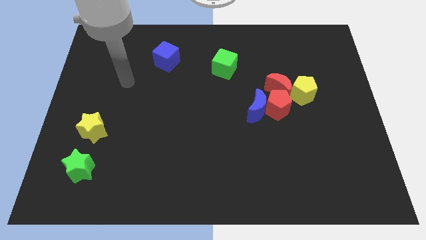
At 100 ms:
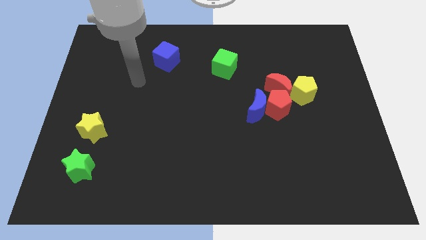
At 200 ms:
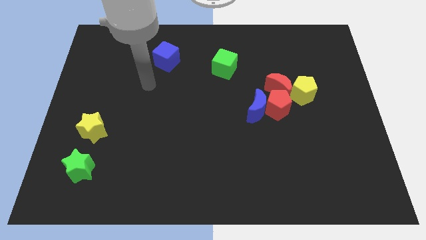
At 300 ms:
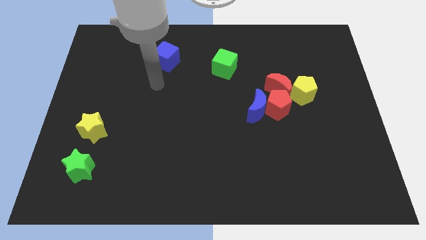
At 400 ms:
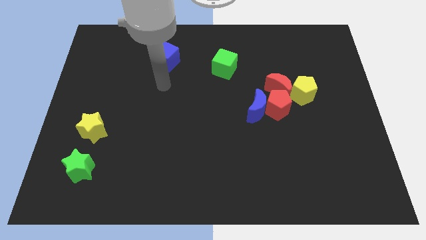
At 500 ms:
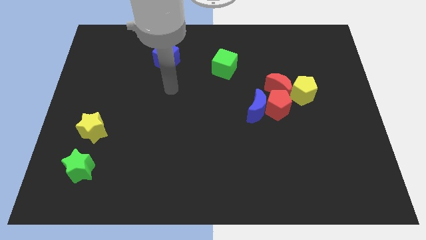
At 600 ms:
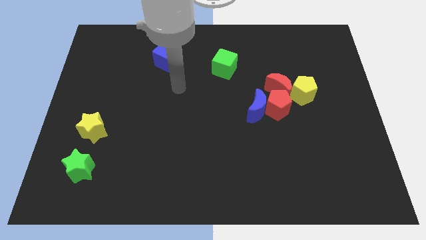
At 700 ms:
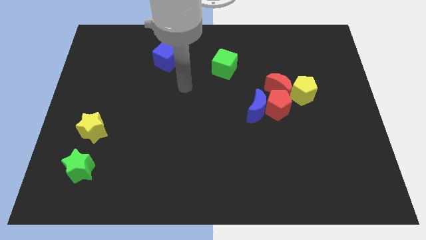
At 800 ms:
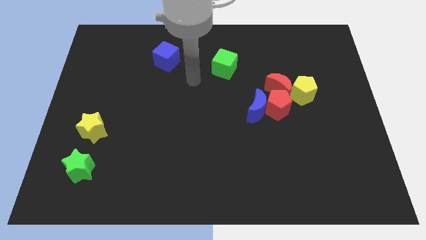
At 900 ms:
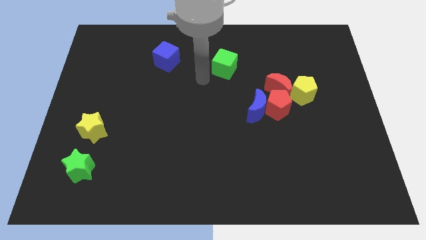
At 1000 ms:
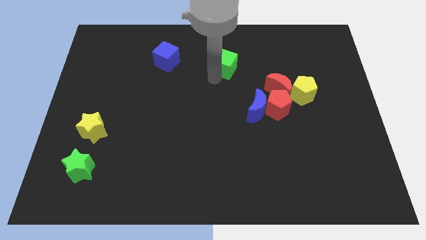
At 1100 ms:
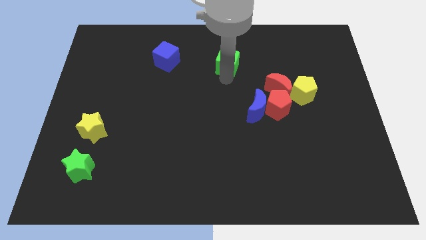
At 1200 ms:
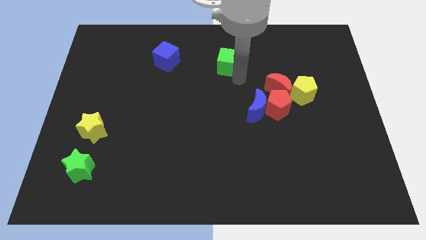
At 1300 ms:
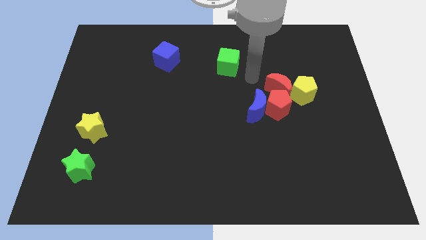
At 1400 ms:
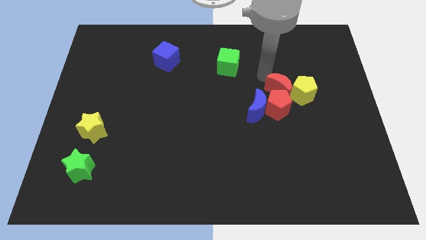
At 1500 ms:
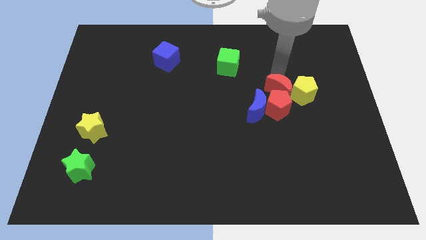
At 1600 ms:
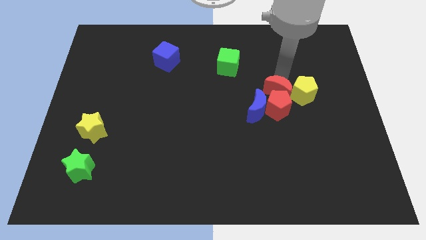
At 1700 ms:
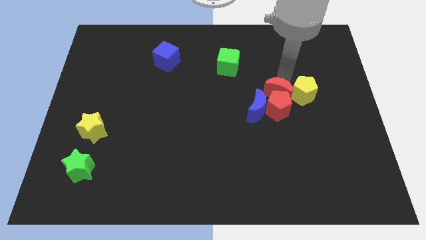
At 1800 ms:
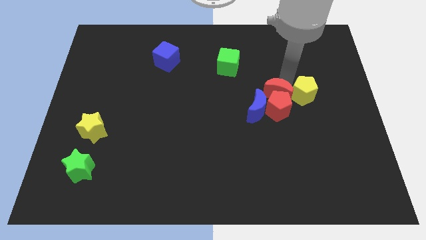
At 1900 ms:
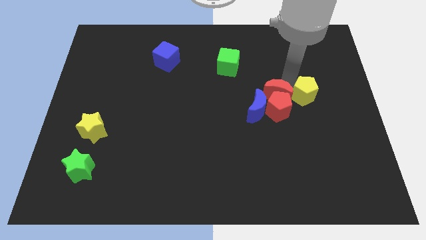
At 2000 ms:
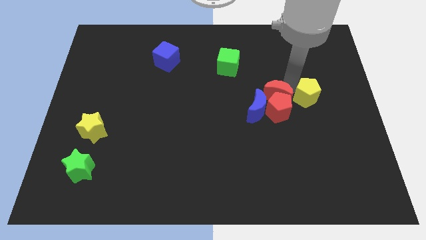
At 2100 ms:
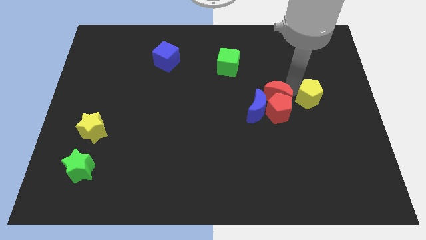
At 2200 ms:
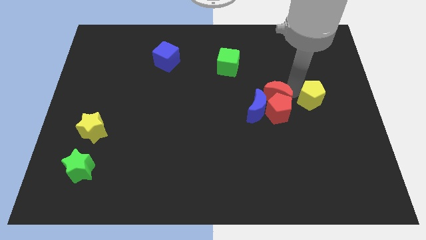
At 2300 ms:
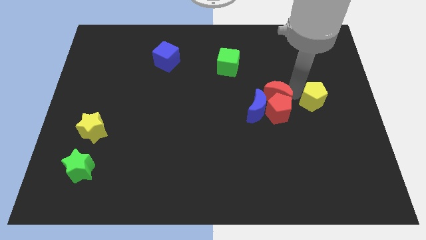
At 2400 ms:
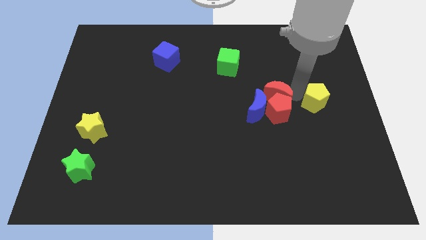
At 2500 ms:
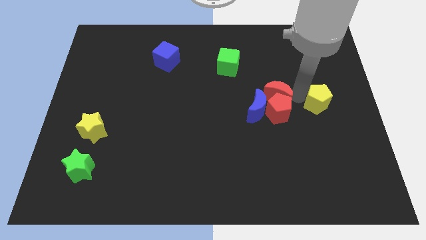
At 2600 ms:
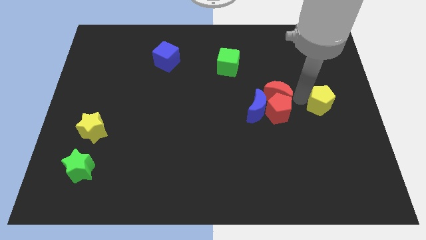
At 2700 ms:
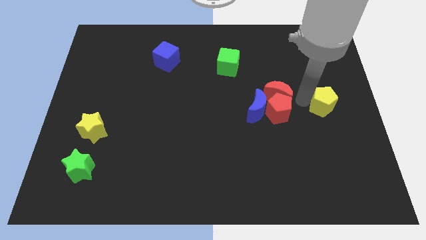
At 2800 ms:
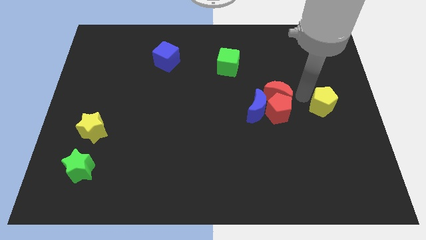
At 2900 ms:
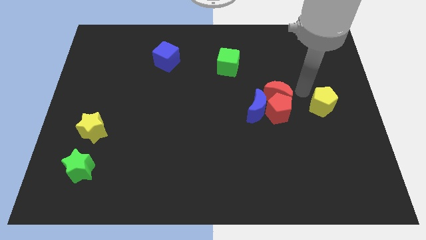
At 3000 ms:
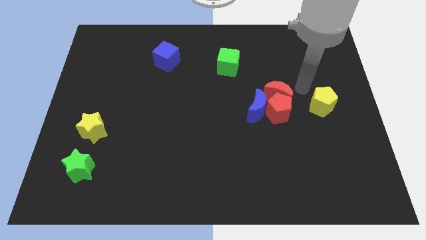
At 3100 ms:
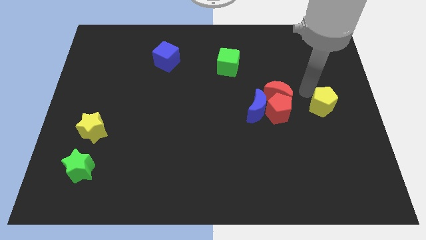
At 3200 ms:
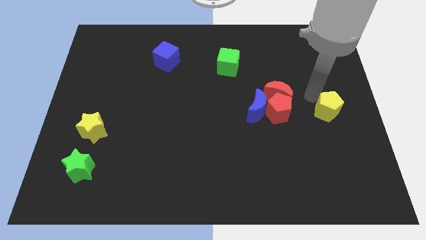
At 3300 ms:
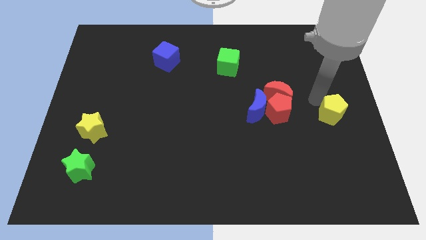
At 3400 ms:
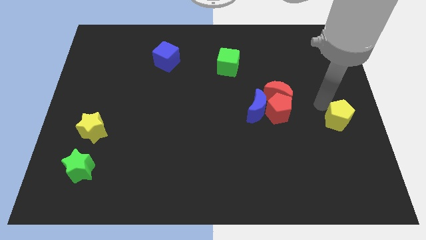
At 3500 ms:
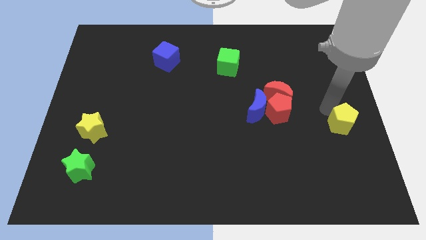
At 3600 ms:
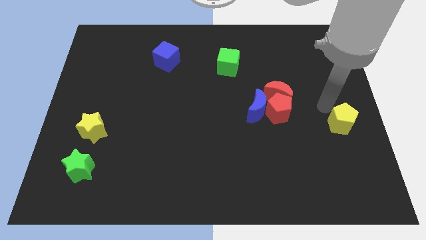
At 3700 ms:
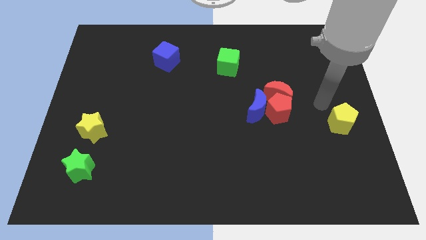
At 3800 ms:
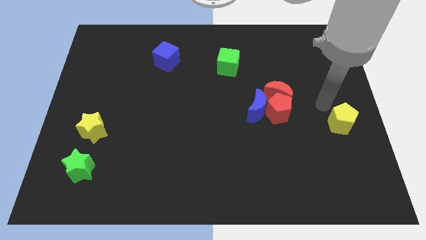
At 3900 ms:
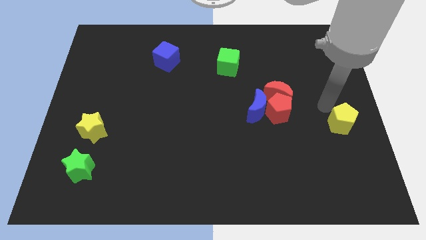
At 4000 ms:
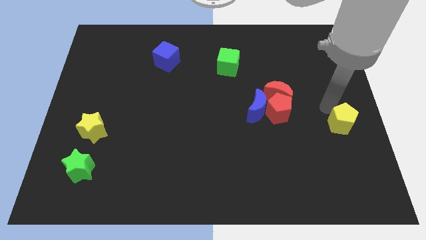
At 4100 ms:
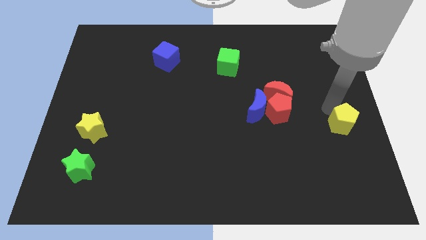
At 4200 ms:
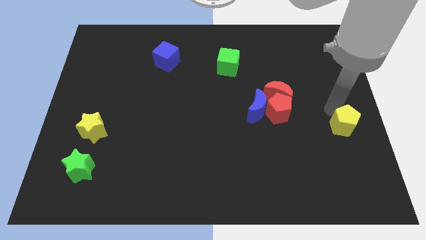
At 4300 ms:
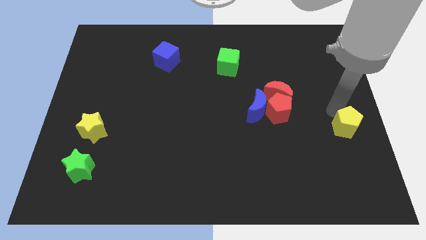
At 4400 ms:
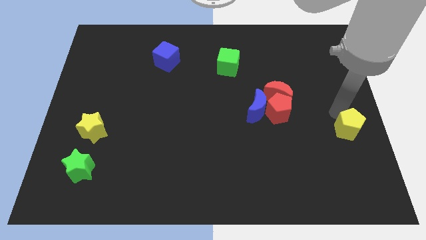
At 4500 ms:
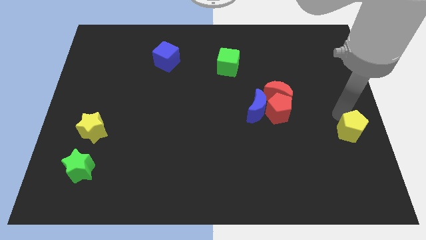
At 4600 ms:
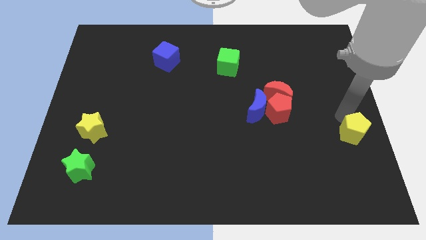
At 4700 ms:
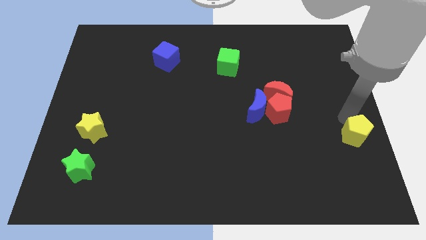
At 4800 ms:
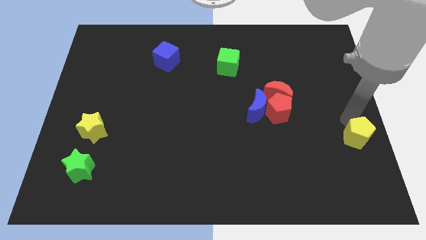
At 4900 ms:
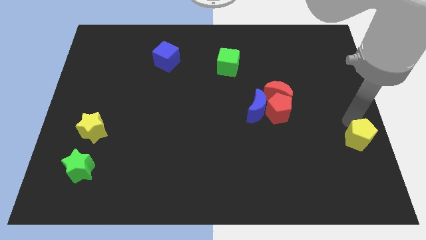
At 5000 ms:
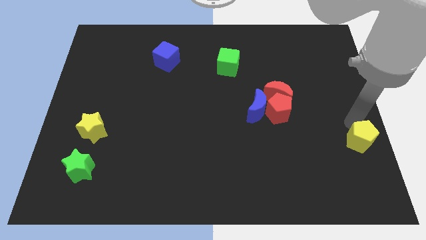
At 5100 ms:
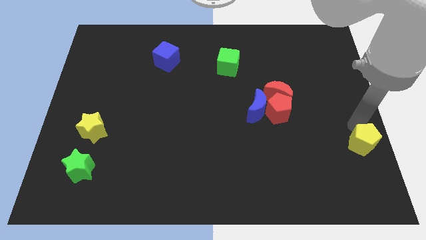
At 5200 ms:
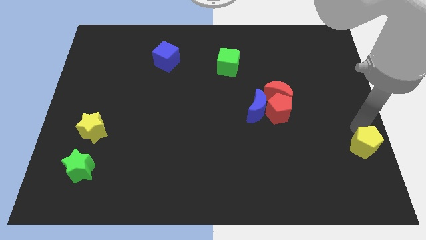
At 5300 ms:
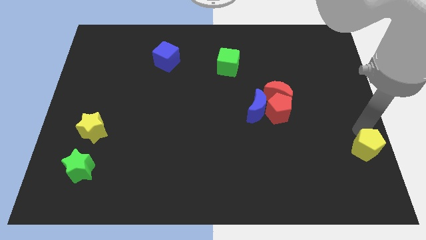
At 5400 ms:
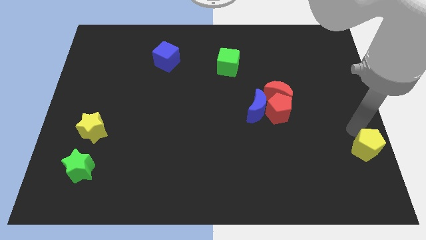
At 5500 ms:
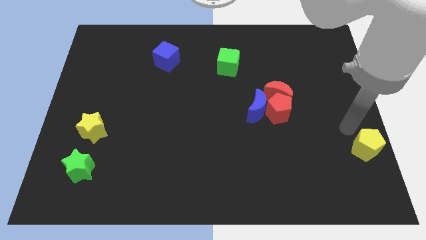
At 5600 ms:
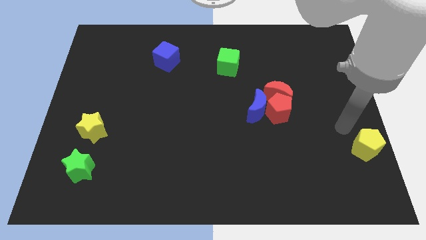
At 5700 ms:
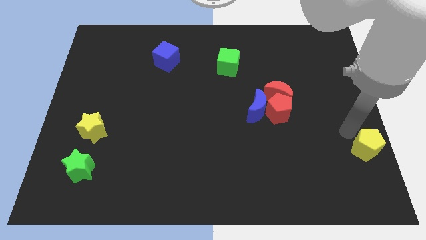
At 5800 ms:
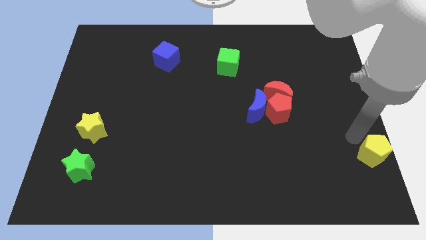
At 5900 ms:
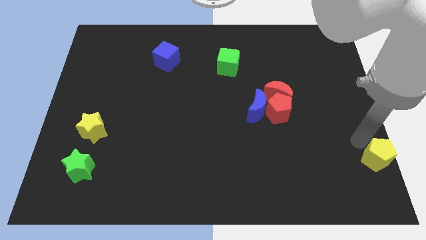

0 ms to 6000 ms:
push the yellow pentagon to the lower right corner

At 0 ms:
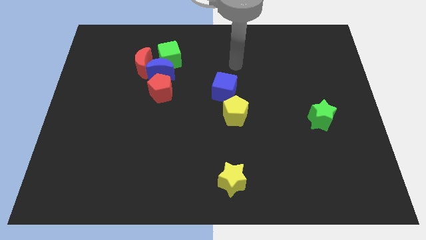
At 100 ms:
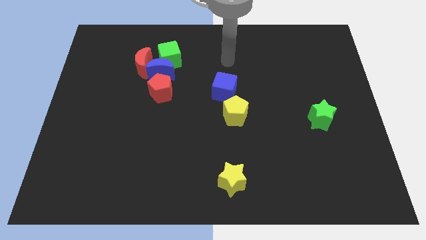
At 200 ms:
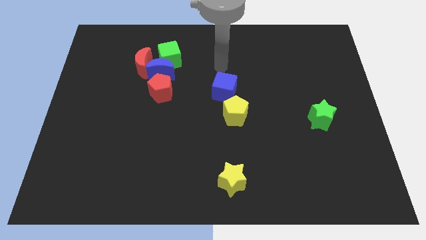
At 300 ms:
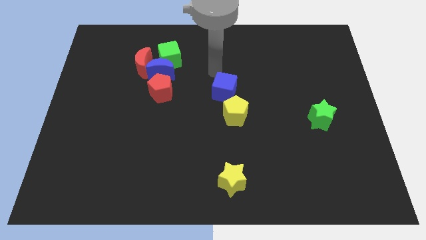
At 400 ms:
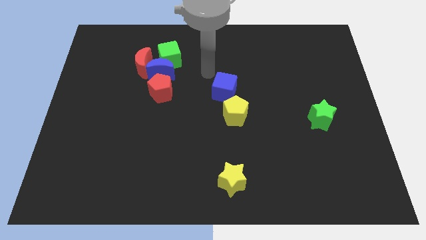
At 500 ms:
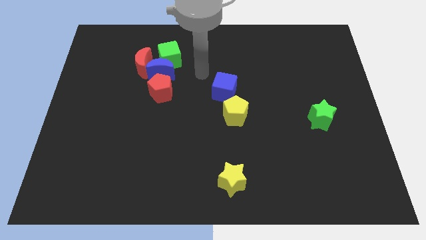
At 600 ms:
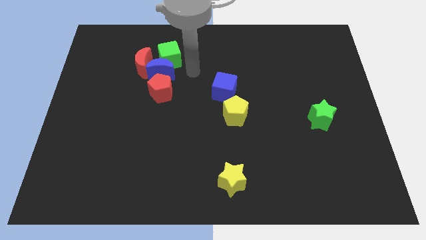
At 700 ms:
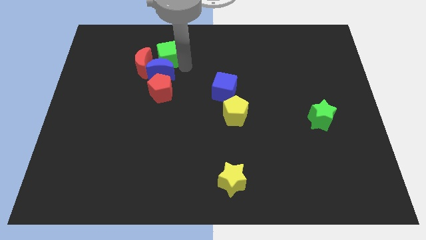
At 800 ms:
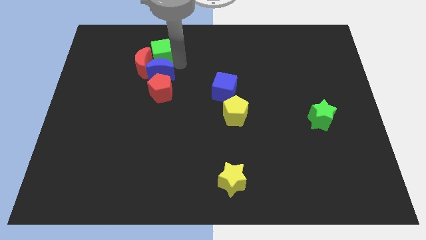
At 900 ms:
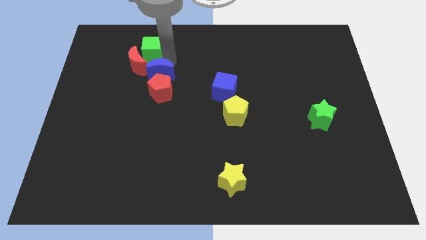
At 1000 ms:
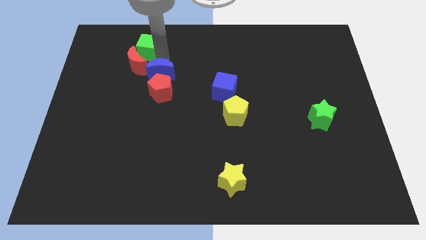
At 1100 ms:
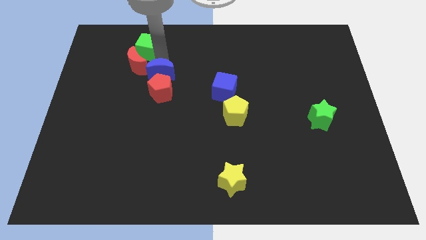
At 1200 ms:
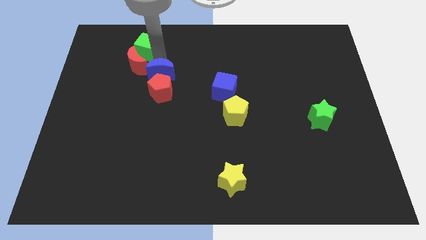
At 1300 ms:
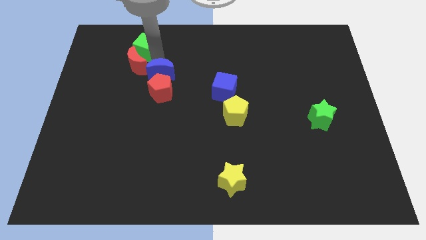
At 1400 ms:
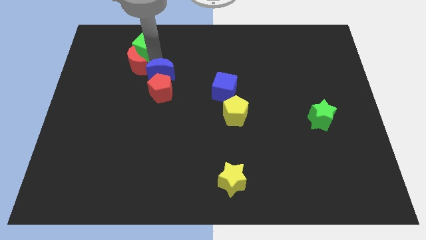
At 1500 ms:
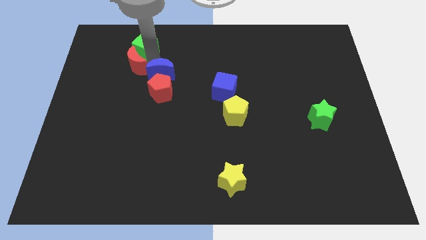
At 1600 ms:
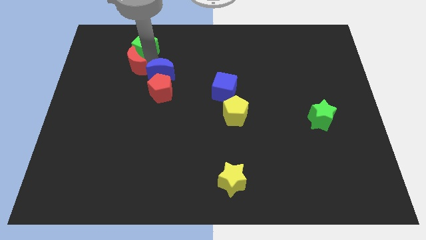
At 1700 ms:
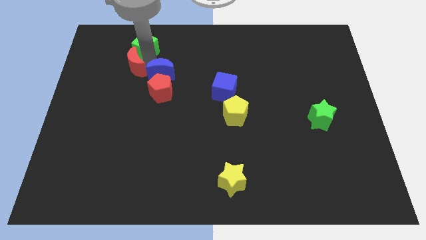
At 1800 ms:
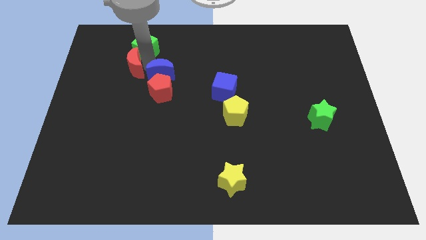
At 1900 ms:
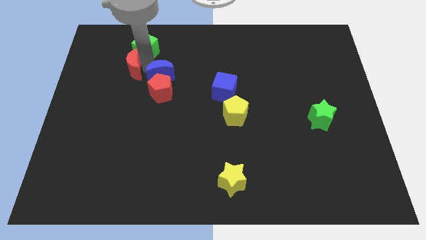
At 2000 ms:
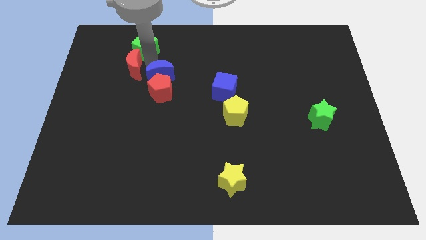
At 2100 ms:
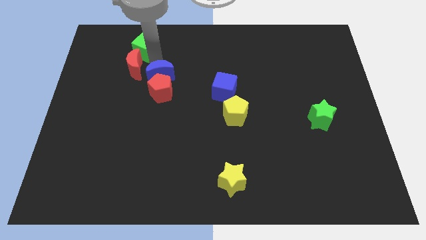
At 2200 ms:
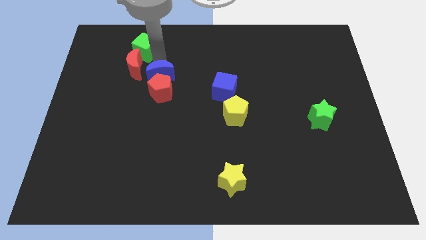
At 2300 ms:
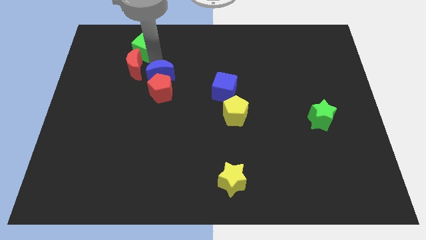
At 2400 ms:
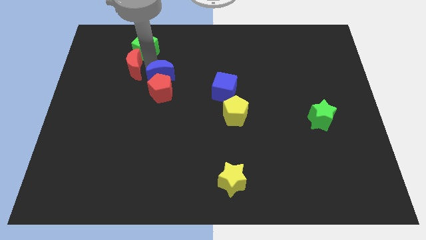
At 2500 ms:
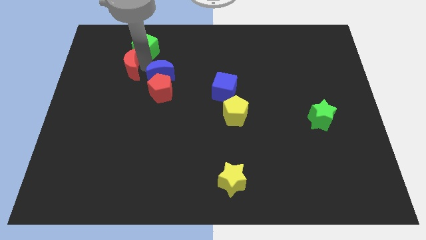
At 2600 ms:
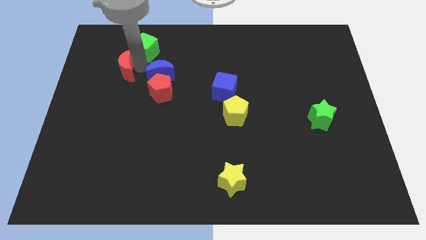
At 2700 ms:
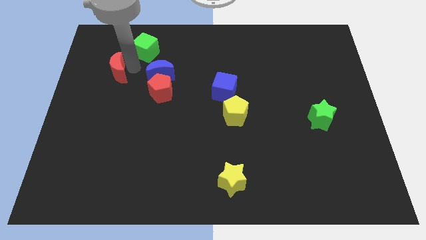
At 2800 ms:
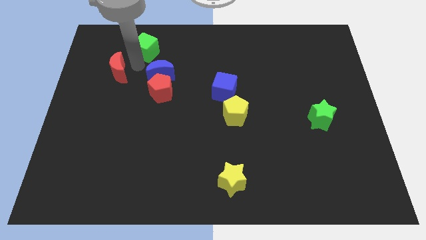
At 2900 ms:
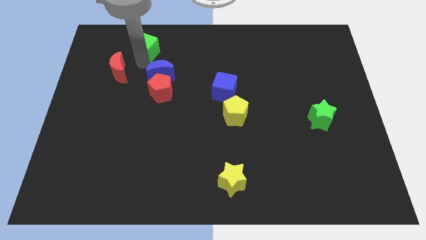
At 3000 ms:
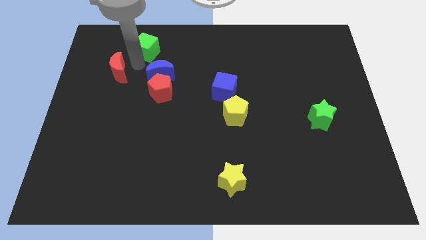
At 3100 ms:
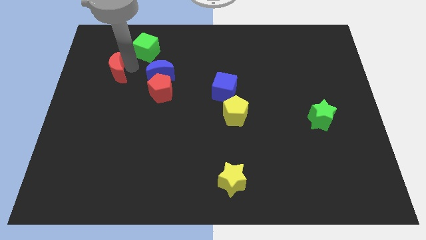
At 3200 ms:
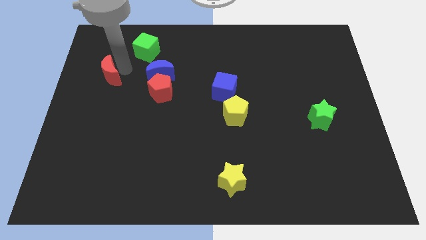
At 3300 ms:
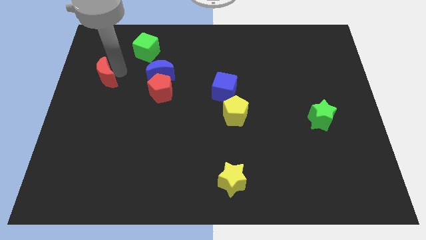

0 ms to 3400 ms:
push the red moon to the left side of the board
